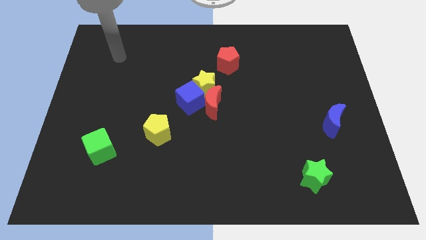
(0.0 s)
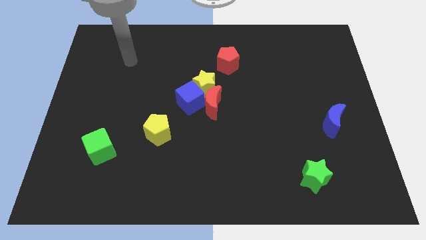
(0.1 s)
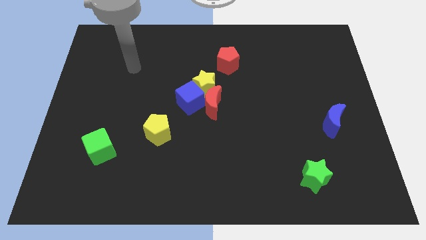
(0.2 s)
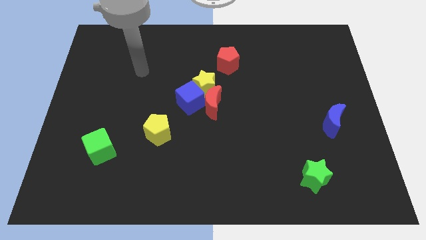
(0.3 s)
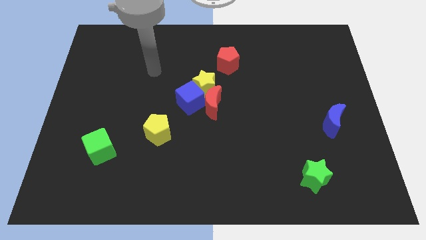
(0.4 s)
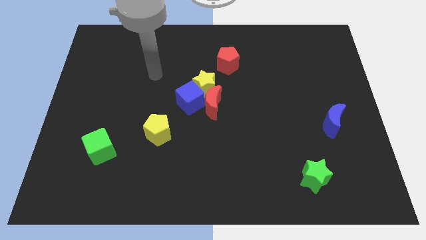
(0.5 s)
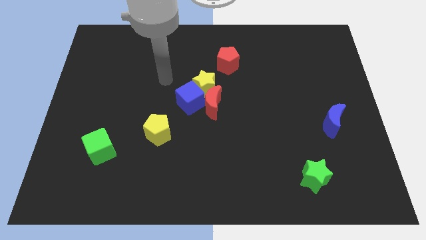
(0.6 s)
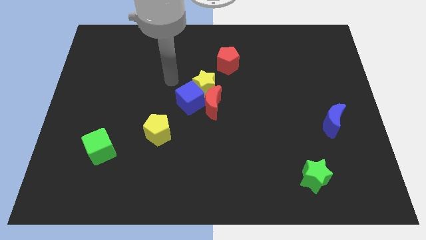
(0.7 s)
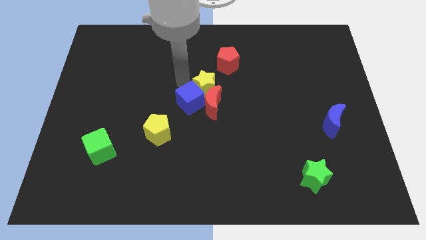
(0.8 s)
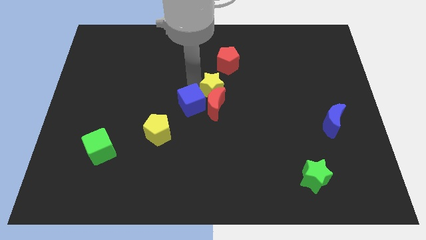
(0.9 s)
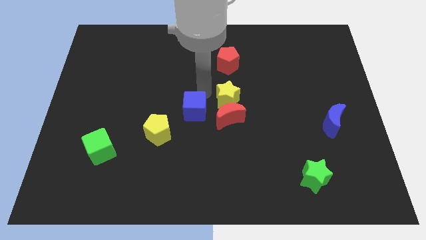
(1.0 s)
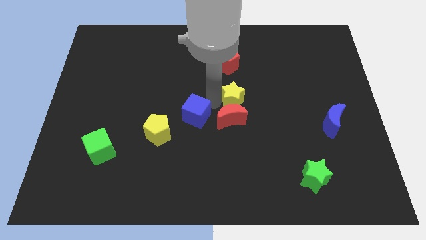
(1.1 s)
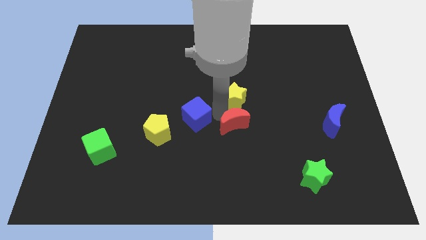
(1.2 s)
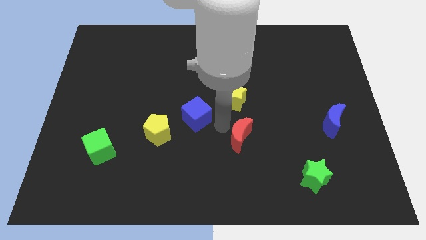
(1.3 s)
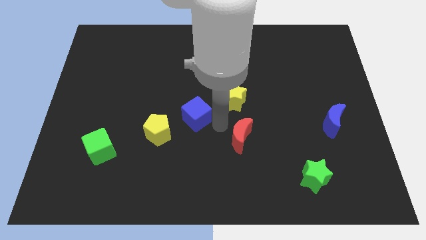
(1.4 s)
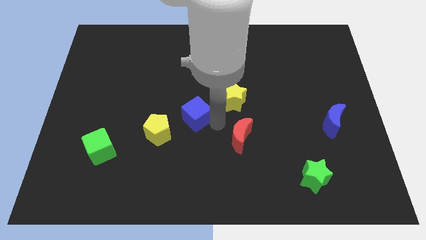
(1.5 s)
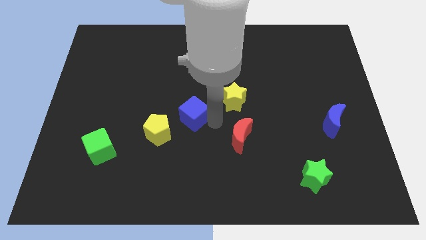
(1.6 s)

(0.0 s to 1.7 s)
separate the blue cube from the yellow star and red moon

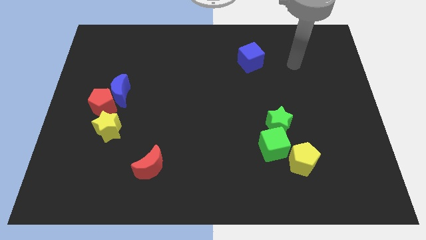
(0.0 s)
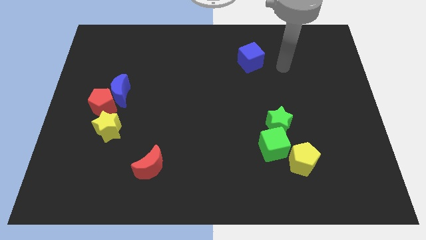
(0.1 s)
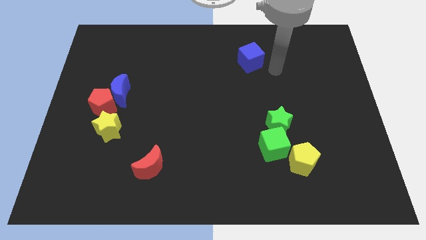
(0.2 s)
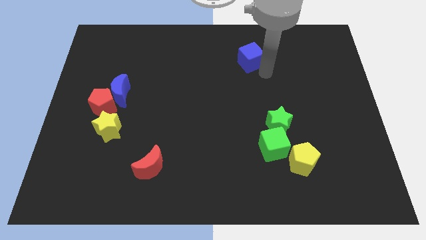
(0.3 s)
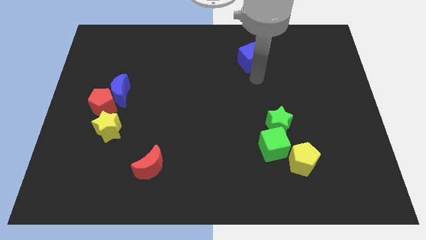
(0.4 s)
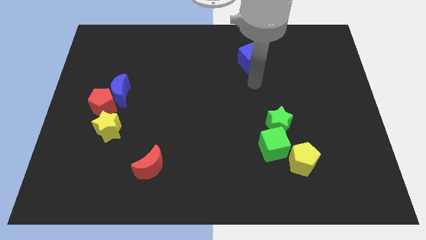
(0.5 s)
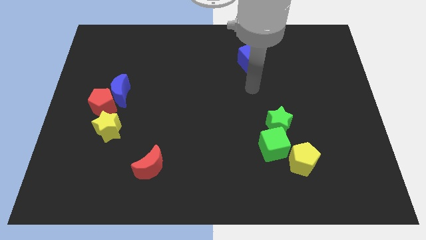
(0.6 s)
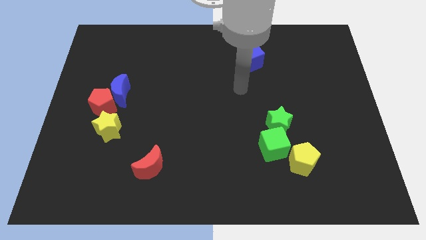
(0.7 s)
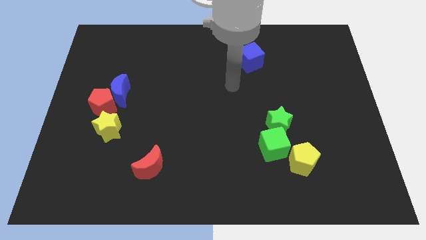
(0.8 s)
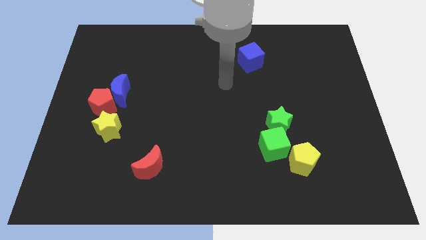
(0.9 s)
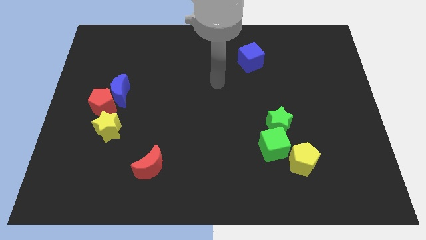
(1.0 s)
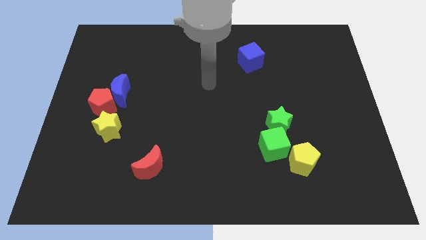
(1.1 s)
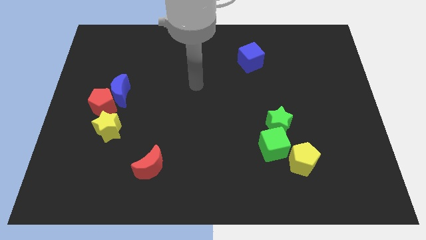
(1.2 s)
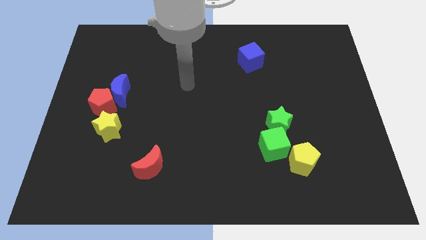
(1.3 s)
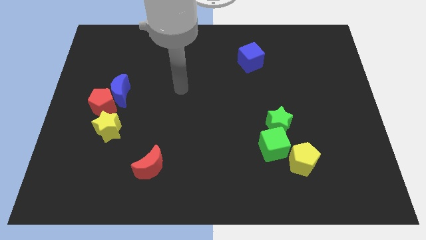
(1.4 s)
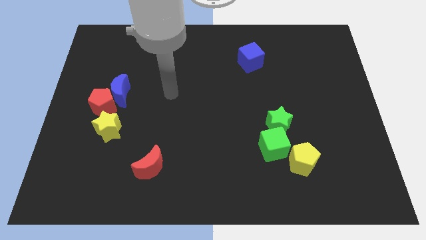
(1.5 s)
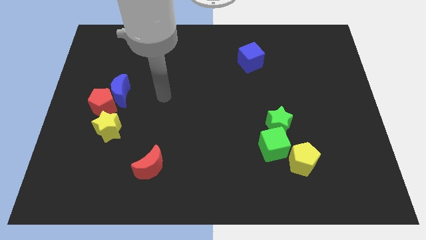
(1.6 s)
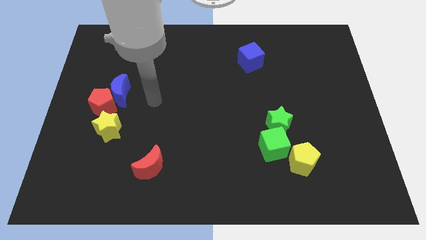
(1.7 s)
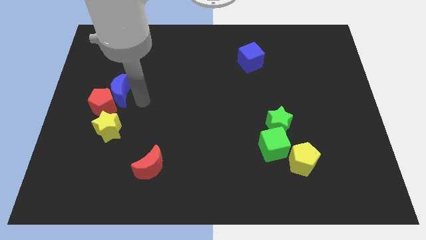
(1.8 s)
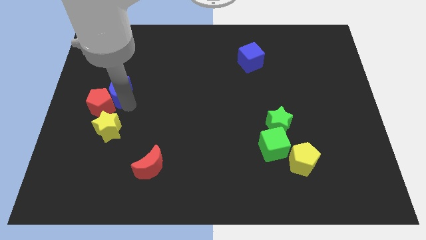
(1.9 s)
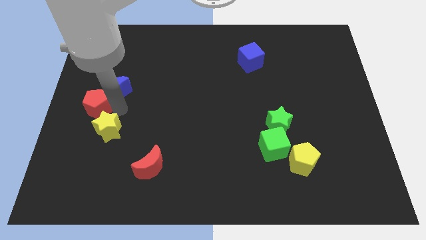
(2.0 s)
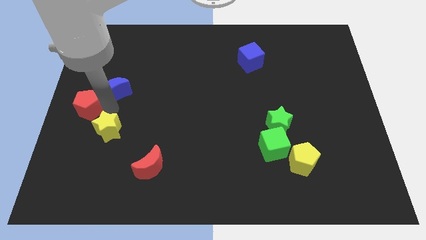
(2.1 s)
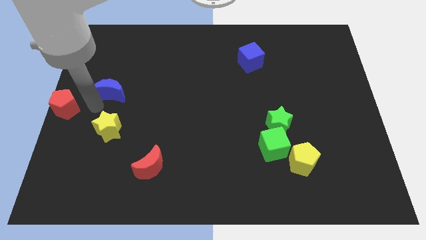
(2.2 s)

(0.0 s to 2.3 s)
separate the blue moon from the red pentagon

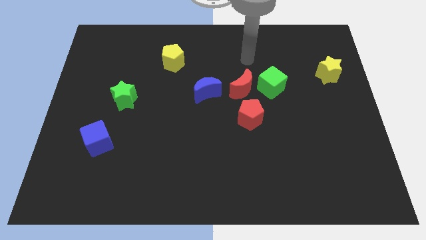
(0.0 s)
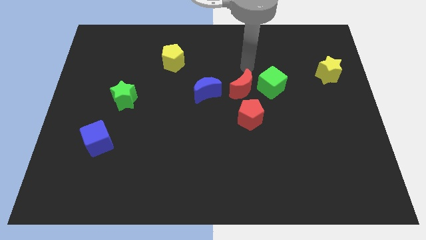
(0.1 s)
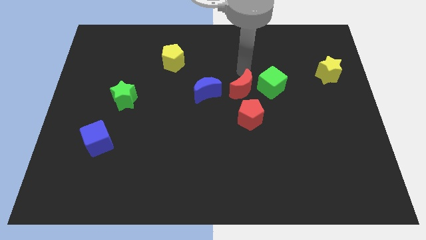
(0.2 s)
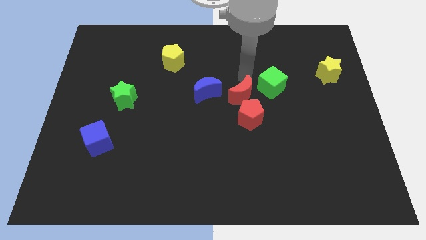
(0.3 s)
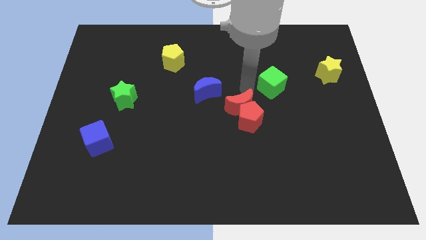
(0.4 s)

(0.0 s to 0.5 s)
separate the green cube from the red moon

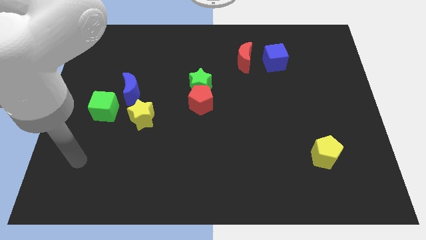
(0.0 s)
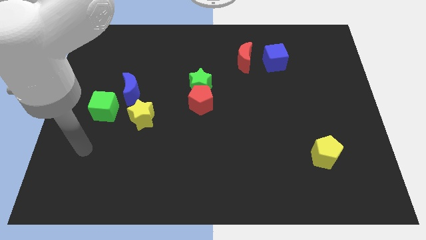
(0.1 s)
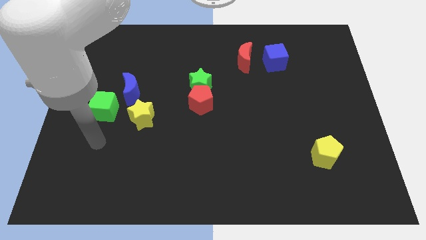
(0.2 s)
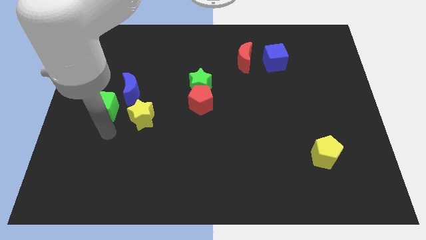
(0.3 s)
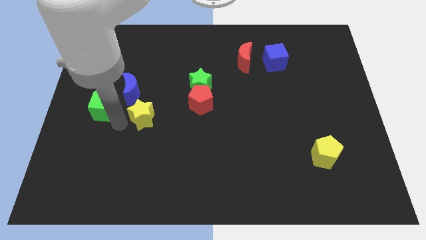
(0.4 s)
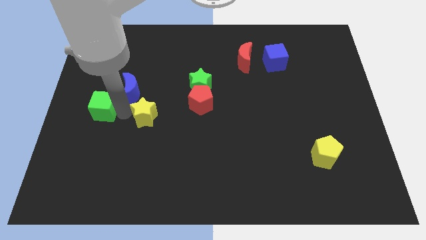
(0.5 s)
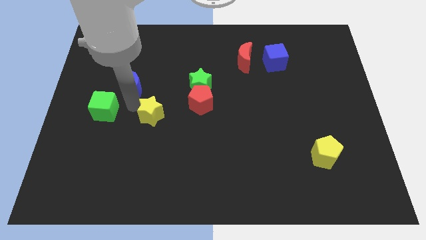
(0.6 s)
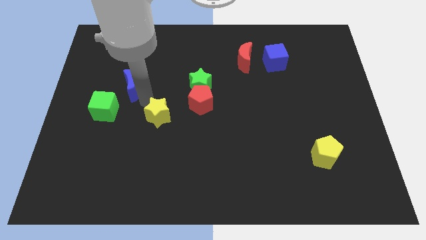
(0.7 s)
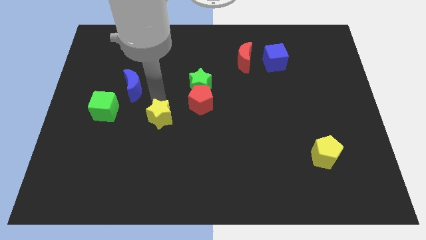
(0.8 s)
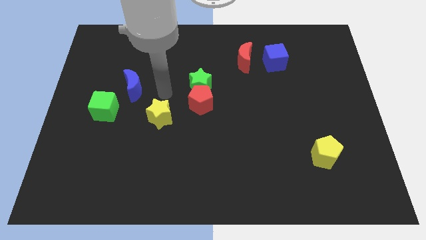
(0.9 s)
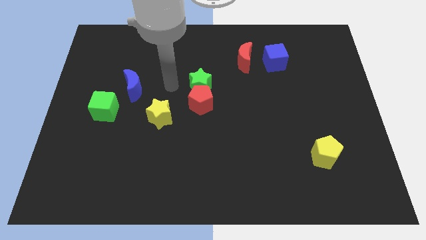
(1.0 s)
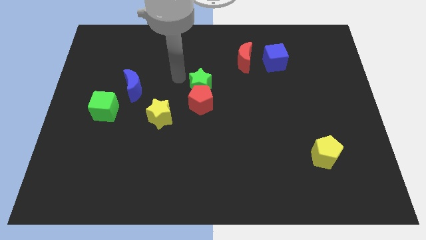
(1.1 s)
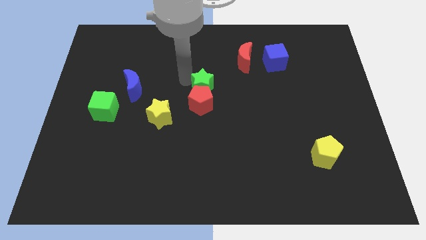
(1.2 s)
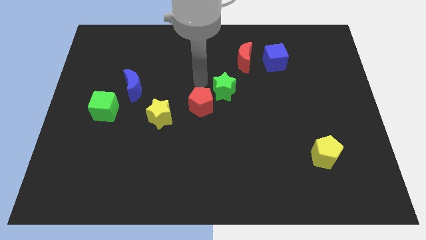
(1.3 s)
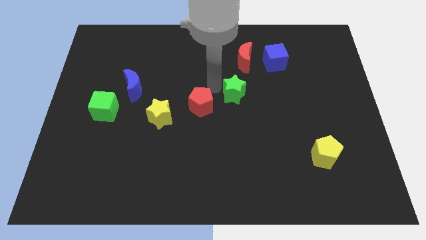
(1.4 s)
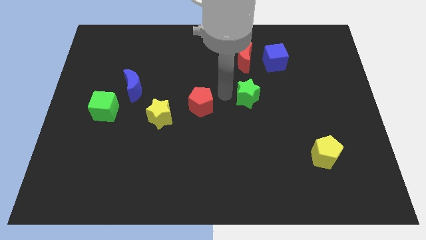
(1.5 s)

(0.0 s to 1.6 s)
separate the red pentagon from the green star

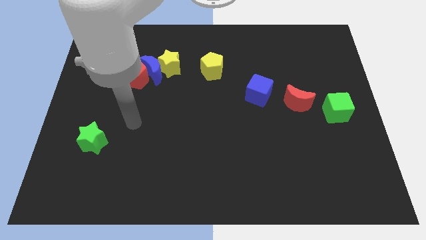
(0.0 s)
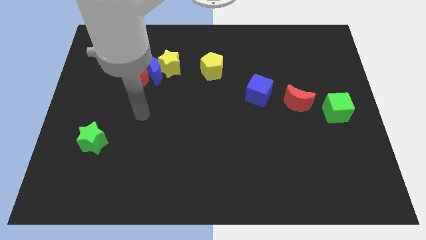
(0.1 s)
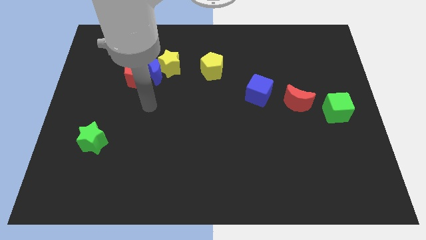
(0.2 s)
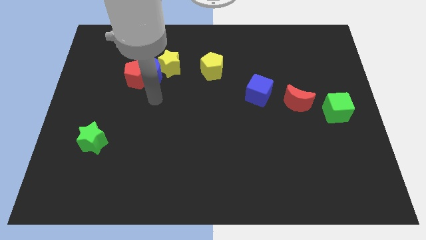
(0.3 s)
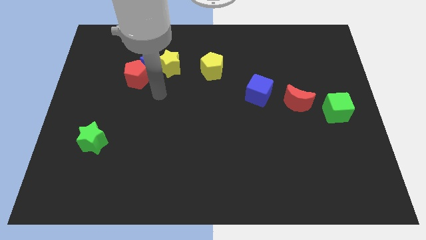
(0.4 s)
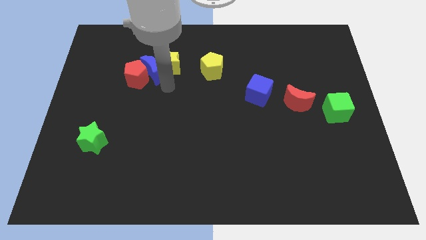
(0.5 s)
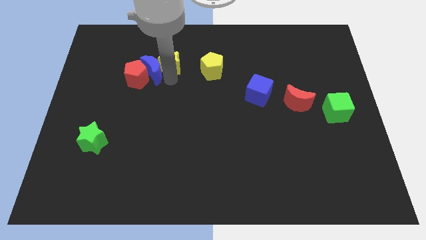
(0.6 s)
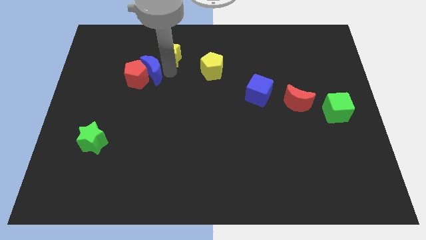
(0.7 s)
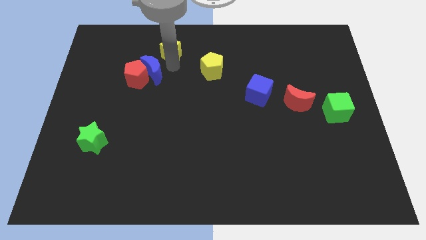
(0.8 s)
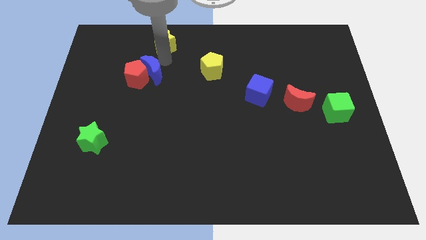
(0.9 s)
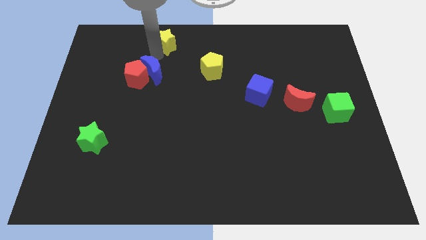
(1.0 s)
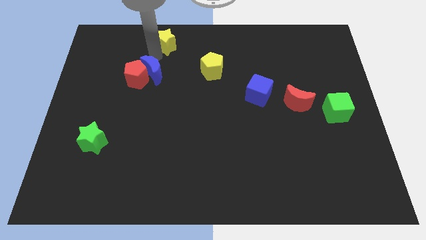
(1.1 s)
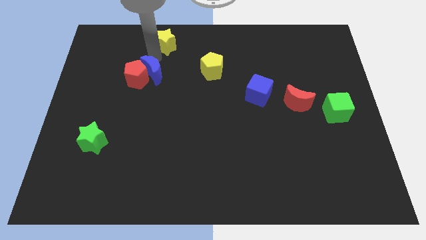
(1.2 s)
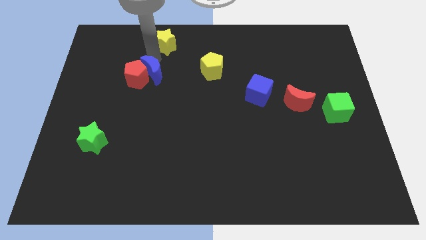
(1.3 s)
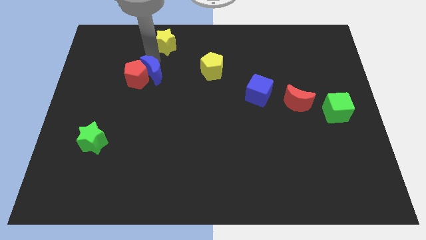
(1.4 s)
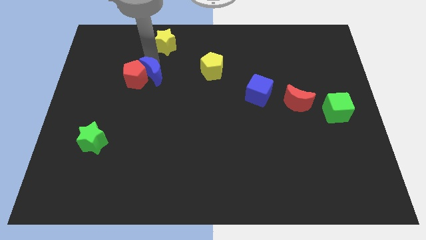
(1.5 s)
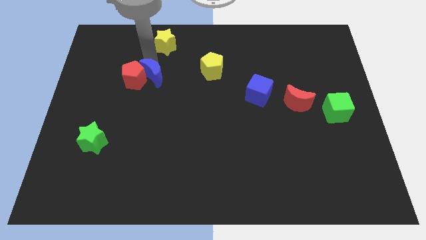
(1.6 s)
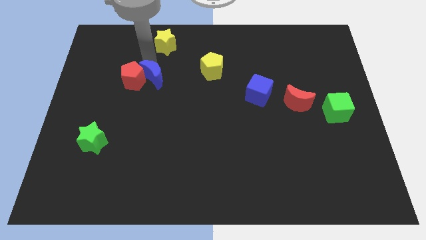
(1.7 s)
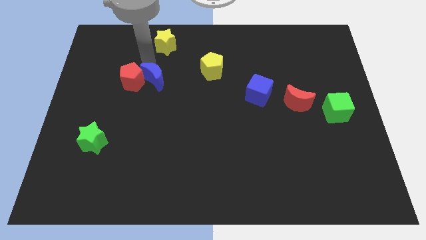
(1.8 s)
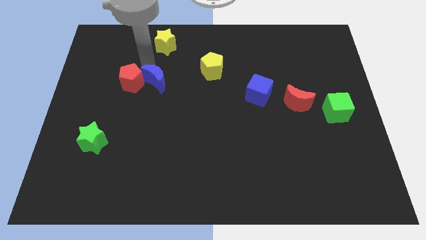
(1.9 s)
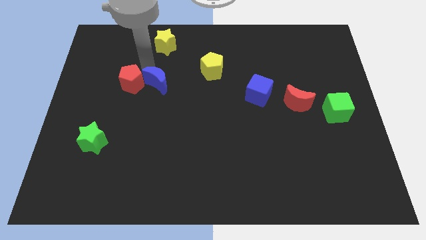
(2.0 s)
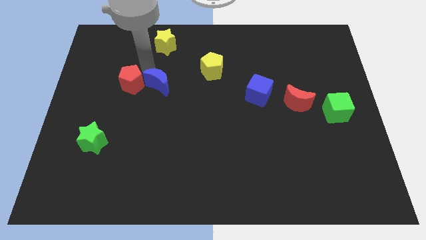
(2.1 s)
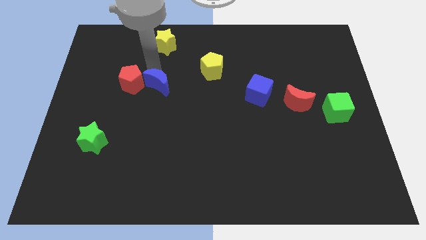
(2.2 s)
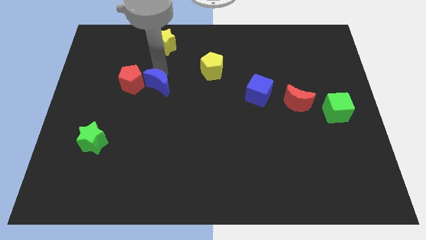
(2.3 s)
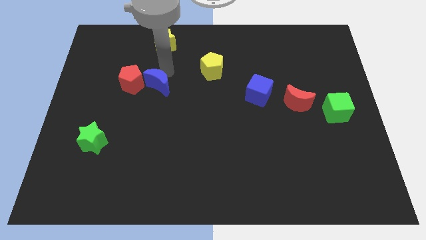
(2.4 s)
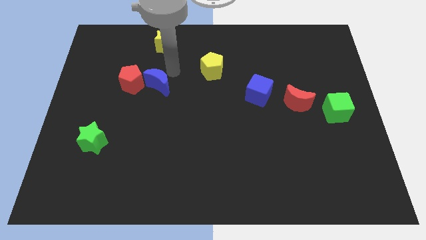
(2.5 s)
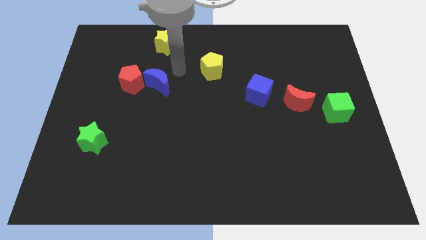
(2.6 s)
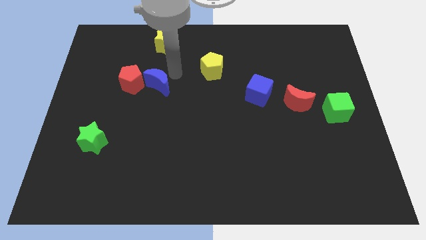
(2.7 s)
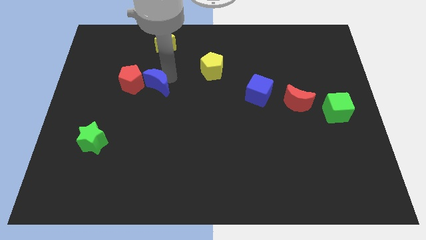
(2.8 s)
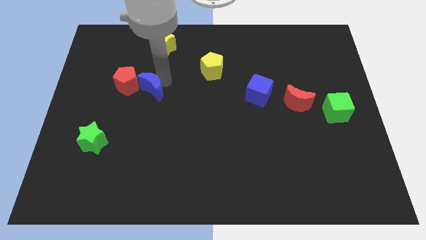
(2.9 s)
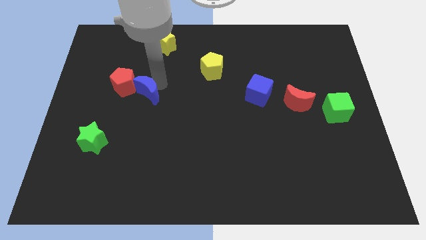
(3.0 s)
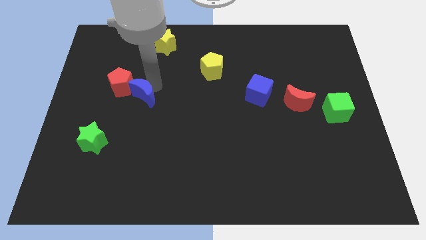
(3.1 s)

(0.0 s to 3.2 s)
move the blue moon away from the red pentagon and yellow star

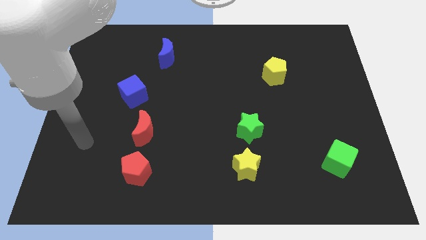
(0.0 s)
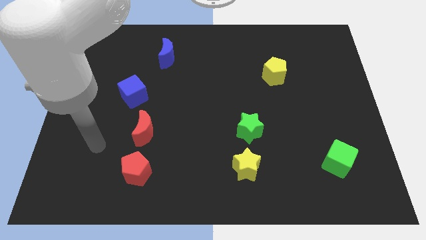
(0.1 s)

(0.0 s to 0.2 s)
separate the red moon from the red pentagon
